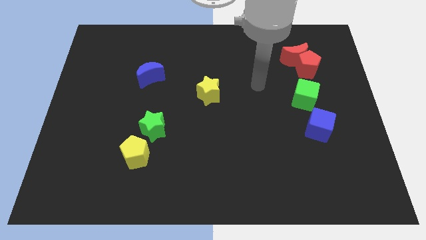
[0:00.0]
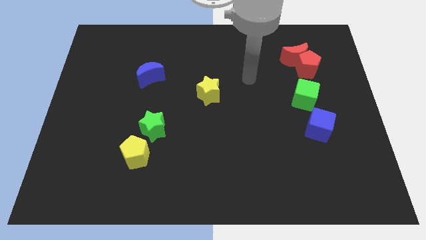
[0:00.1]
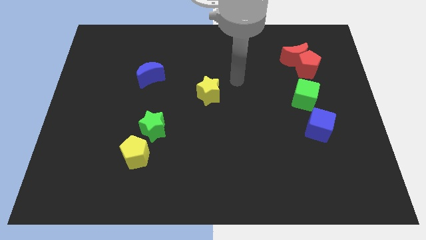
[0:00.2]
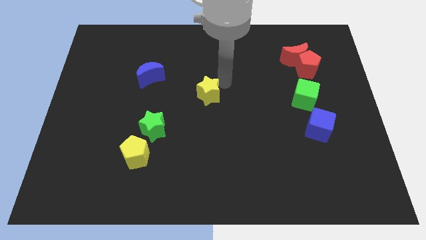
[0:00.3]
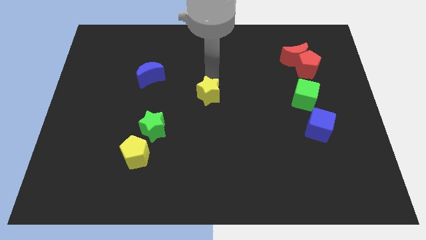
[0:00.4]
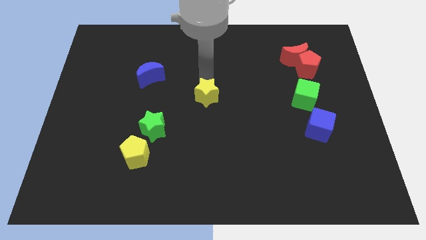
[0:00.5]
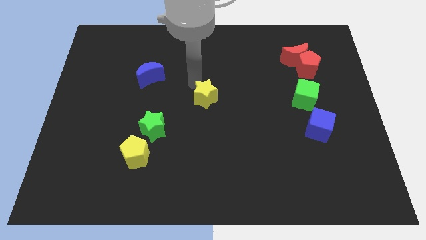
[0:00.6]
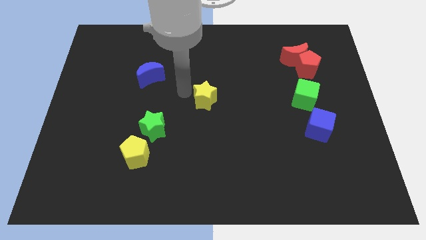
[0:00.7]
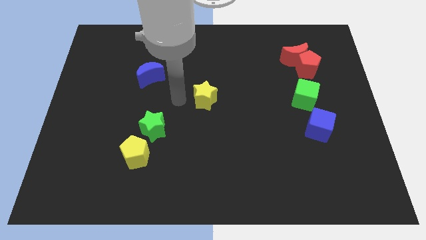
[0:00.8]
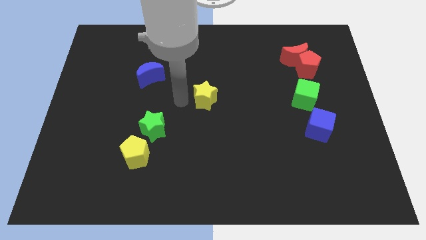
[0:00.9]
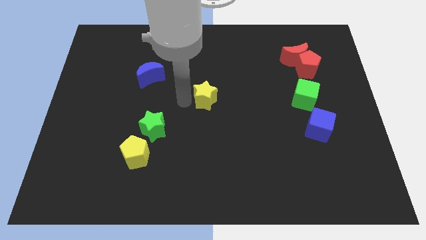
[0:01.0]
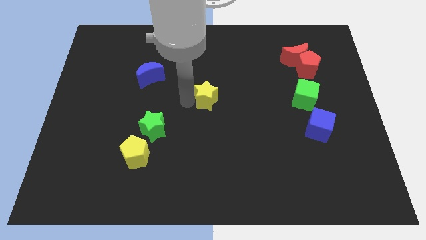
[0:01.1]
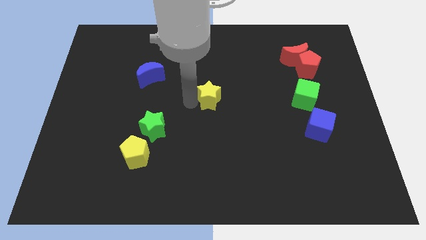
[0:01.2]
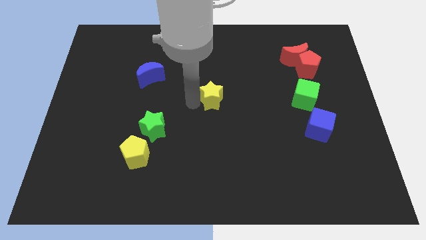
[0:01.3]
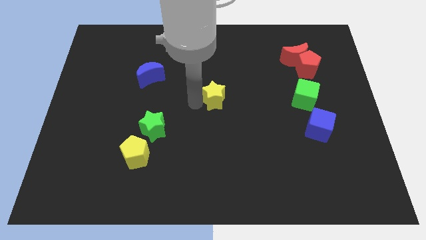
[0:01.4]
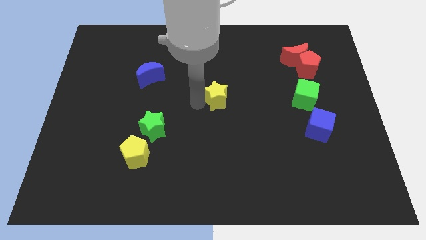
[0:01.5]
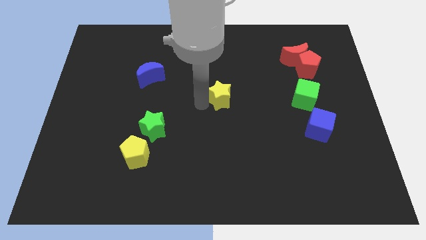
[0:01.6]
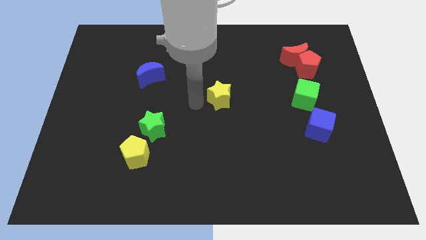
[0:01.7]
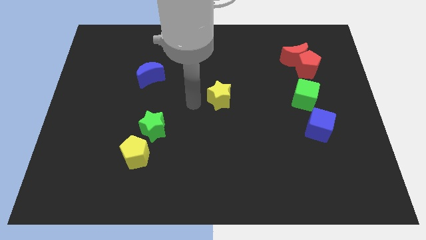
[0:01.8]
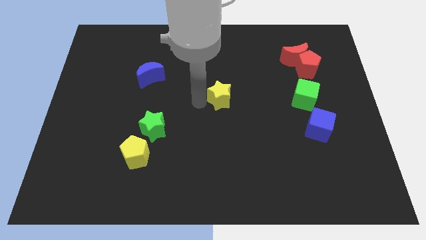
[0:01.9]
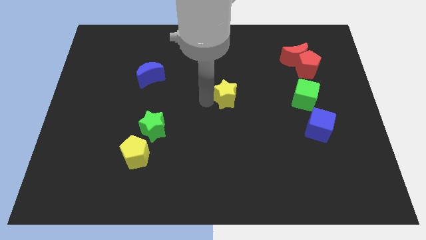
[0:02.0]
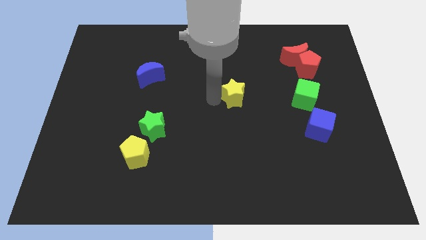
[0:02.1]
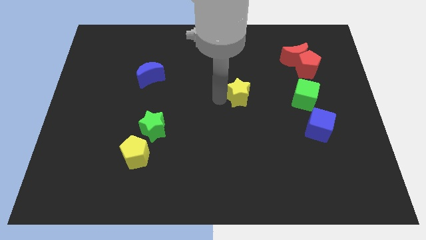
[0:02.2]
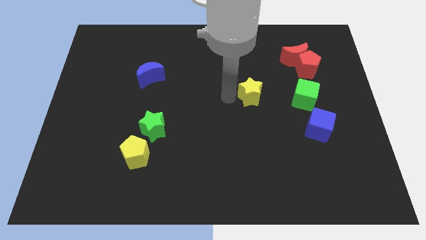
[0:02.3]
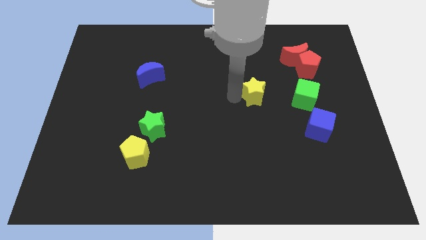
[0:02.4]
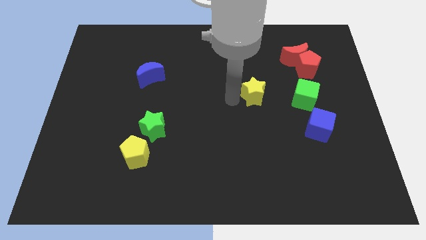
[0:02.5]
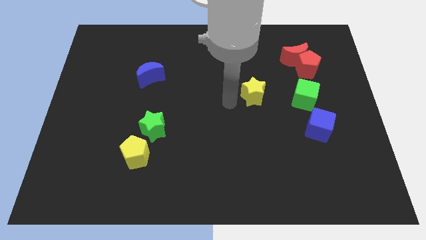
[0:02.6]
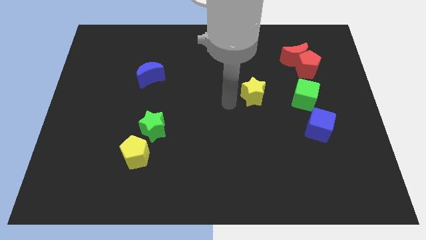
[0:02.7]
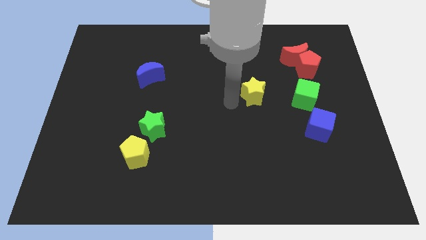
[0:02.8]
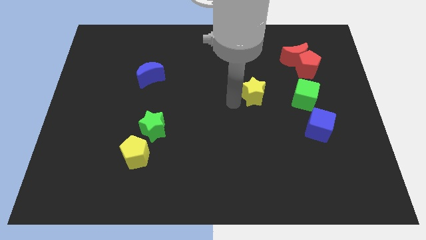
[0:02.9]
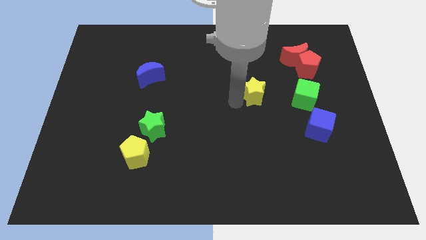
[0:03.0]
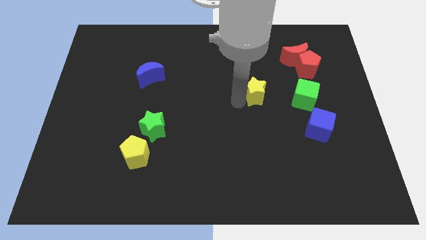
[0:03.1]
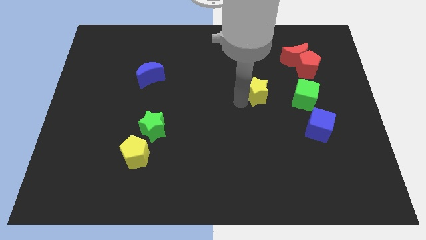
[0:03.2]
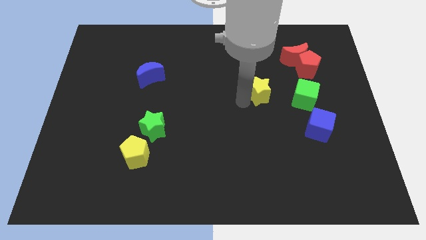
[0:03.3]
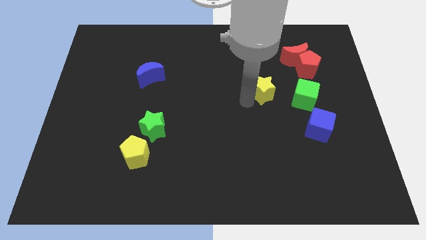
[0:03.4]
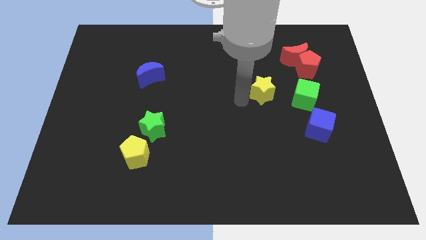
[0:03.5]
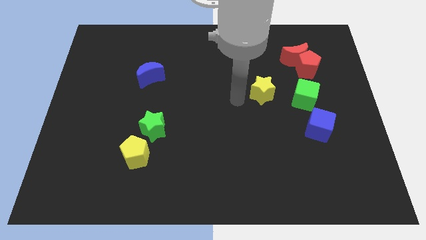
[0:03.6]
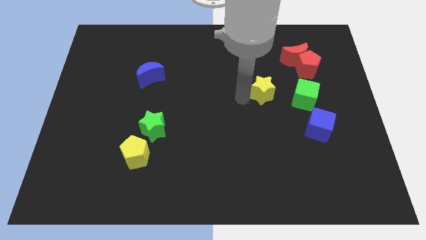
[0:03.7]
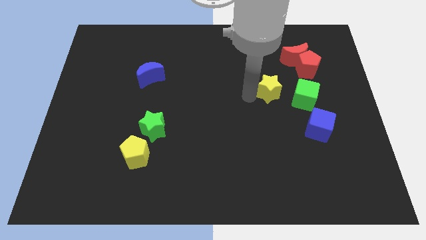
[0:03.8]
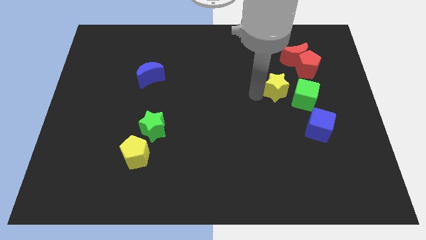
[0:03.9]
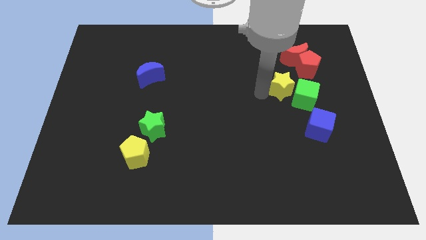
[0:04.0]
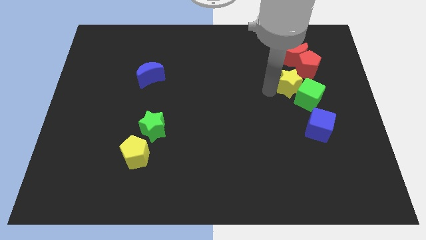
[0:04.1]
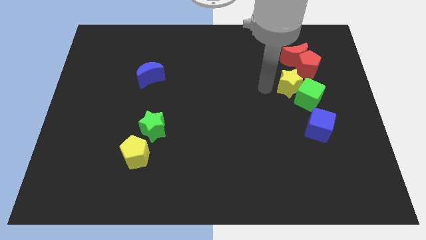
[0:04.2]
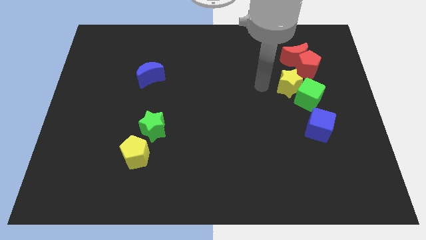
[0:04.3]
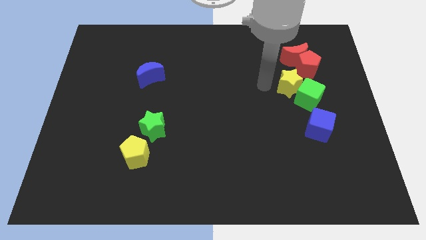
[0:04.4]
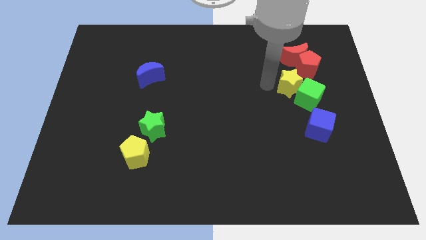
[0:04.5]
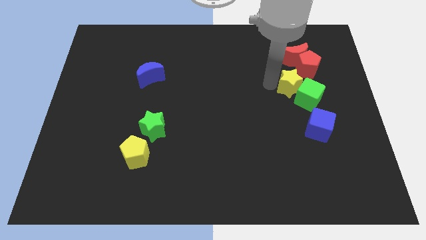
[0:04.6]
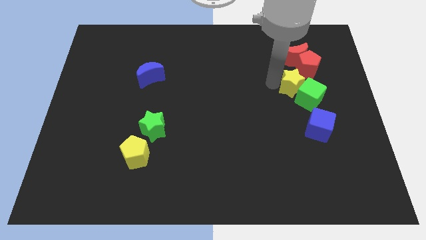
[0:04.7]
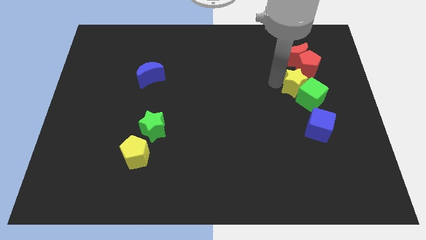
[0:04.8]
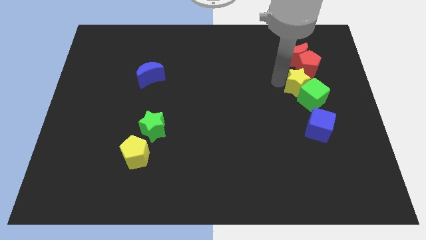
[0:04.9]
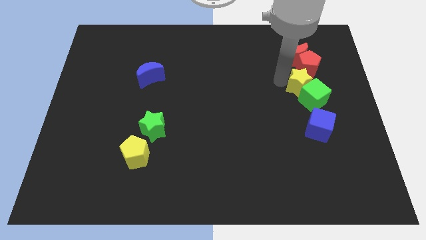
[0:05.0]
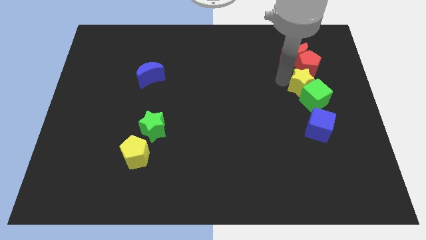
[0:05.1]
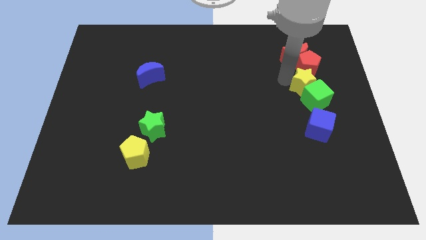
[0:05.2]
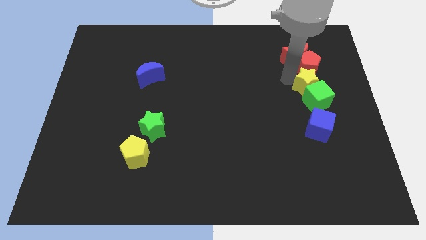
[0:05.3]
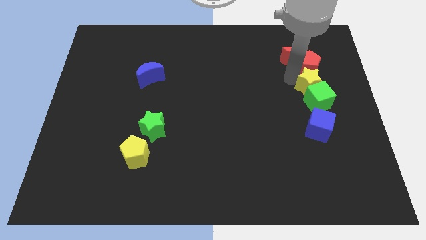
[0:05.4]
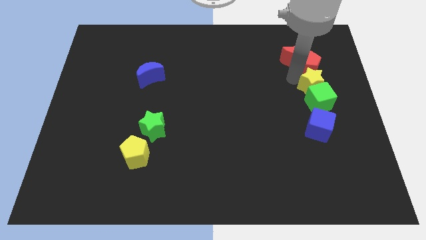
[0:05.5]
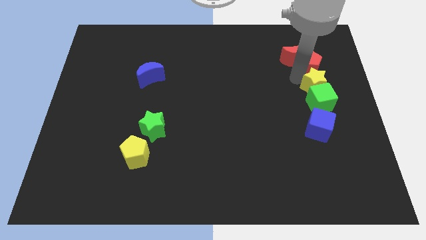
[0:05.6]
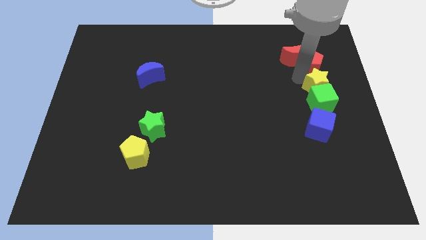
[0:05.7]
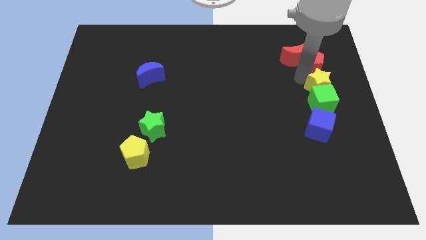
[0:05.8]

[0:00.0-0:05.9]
push the yellow star to the right side
